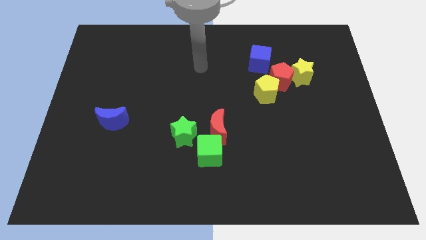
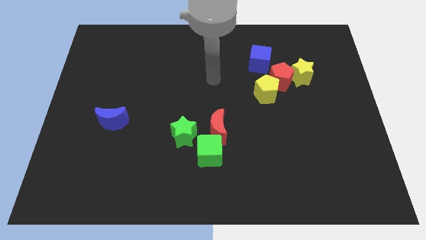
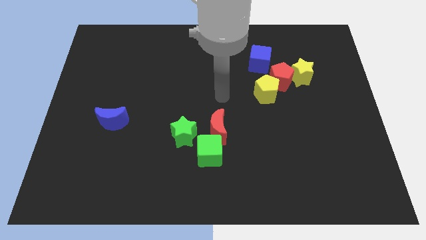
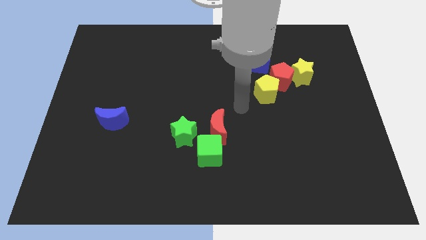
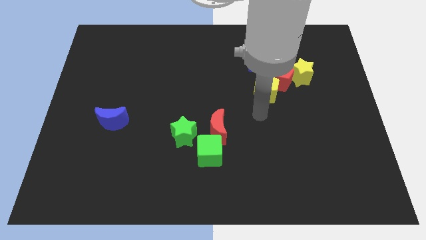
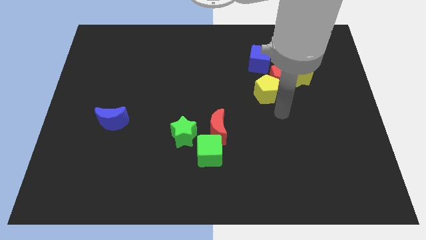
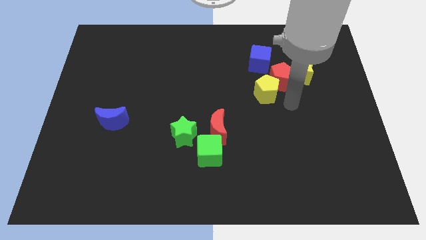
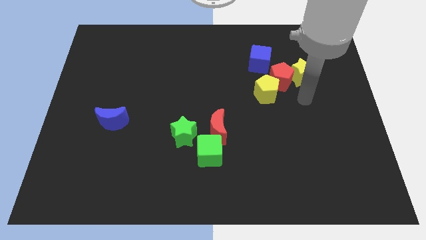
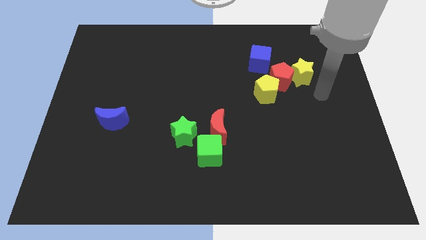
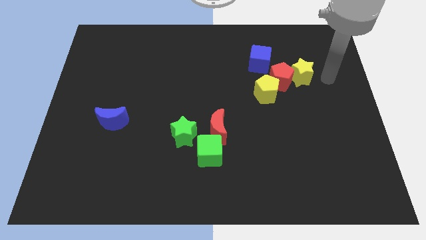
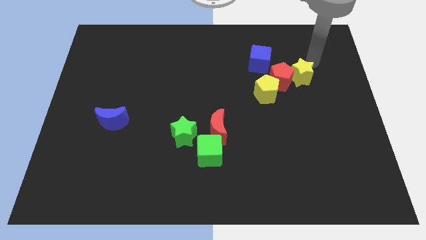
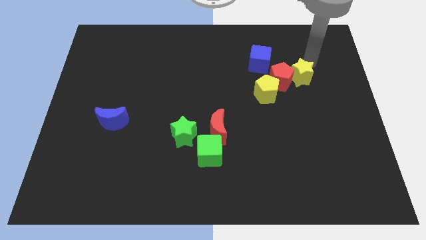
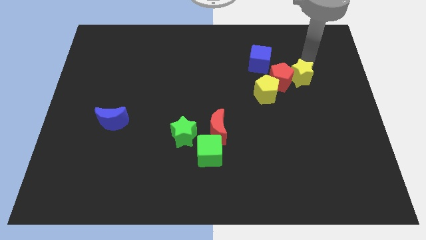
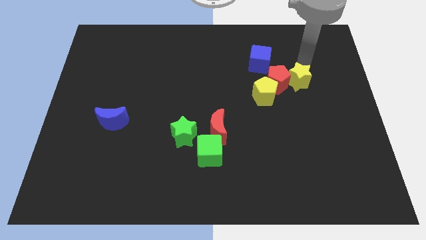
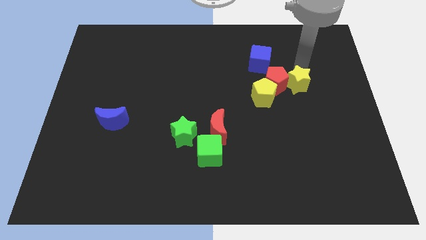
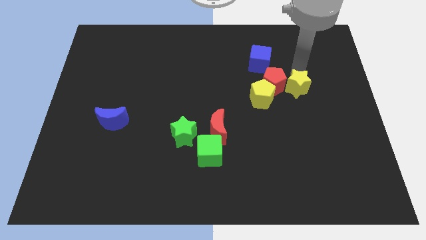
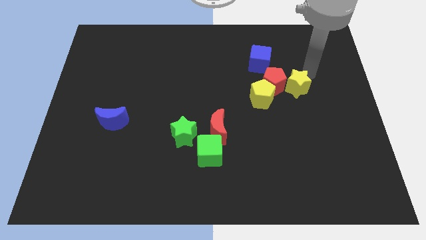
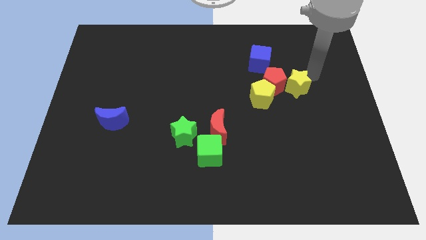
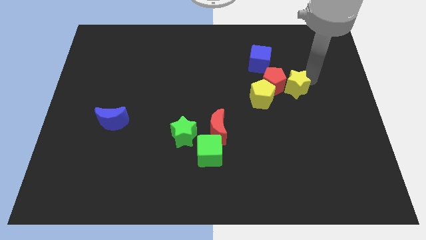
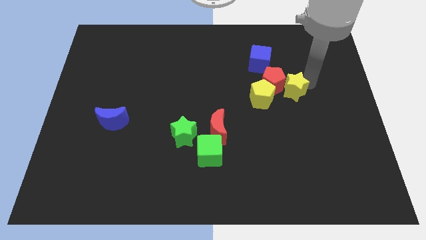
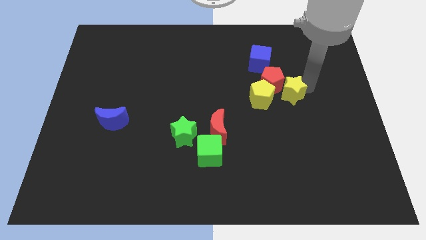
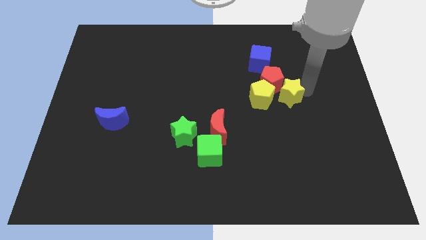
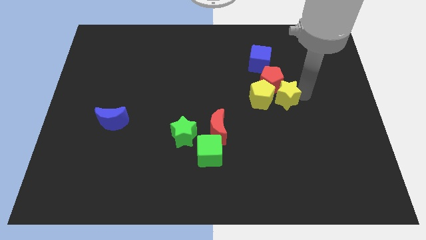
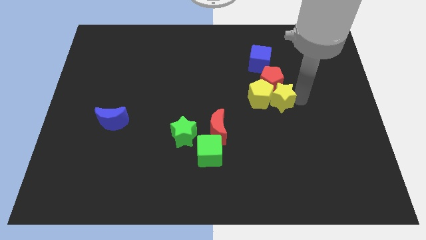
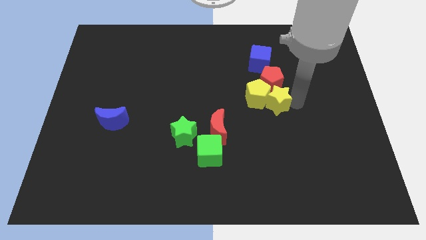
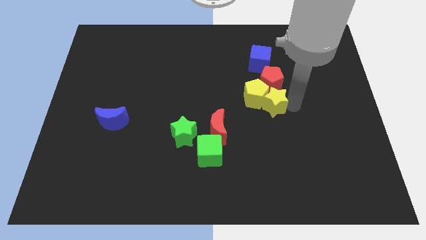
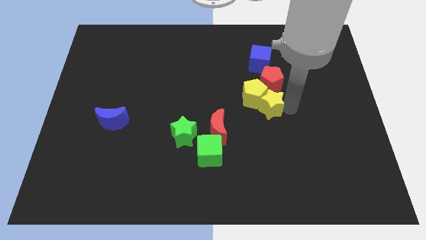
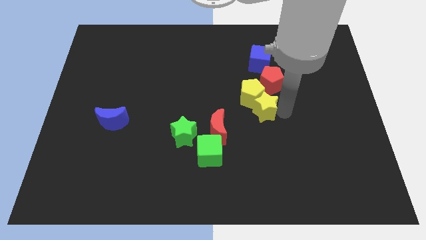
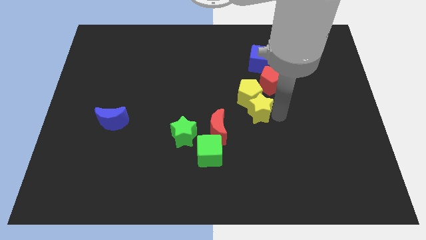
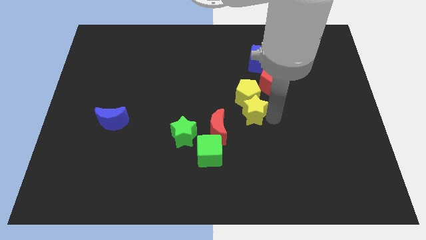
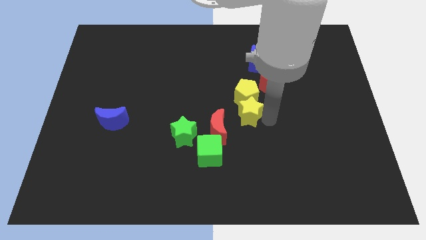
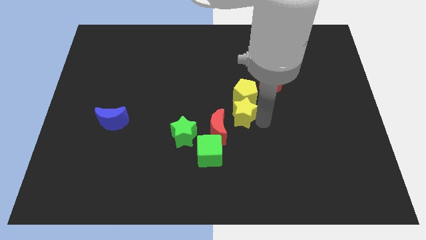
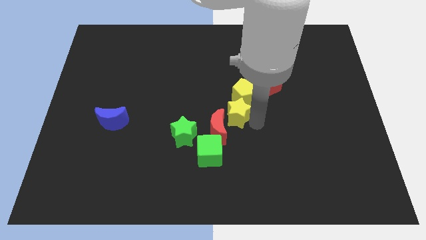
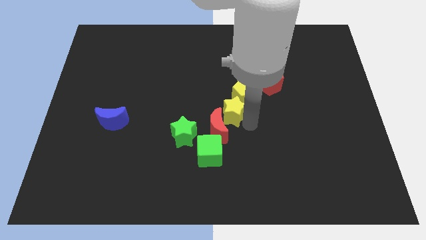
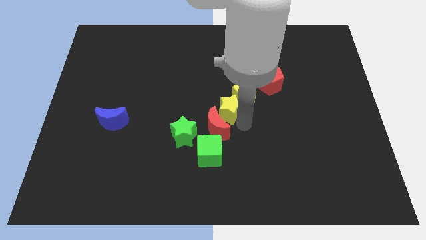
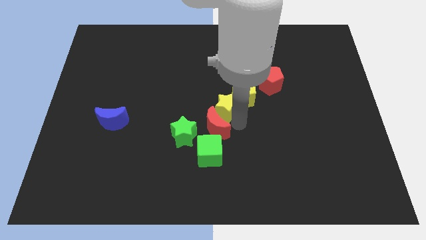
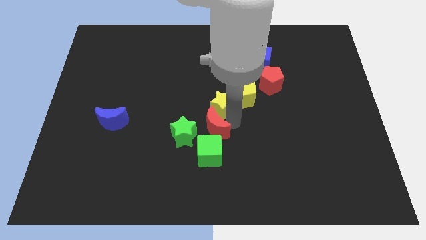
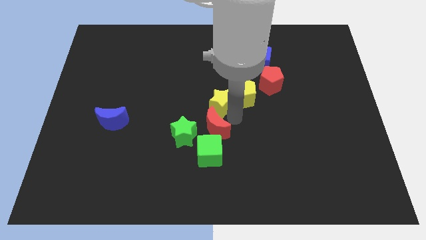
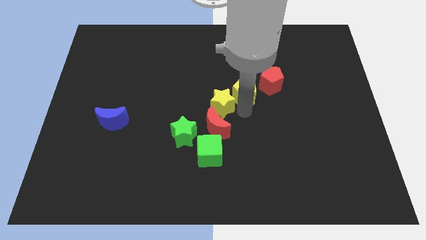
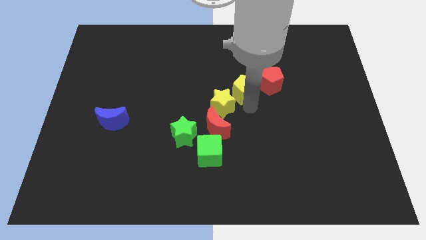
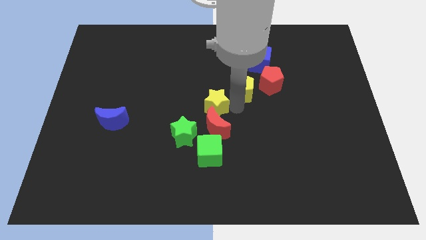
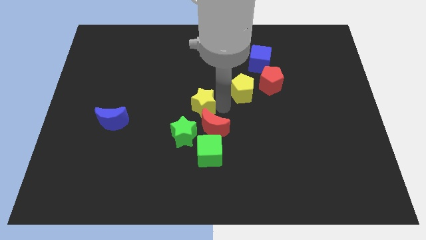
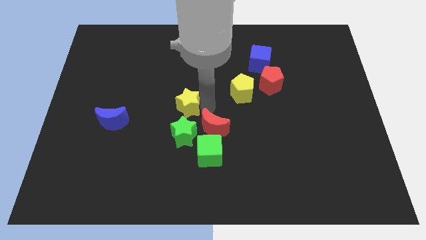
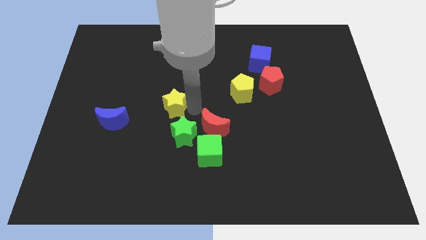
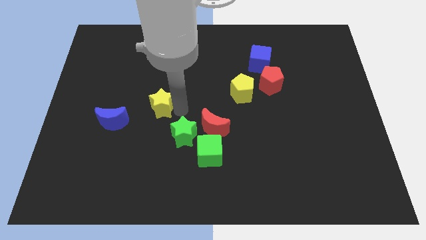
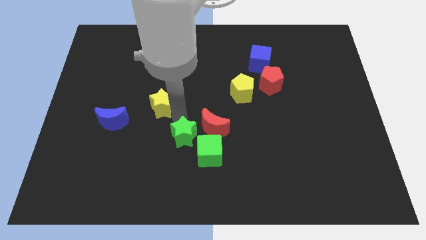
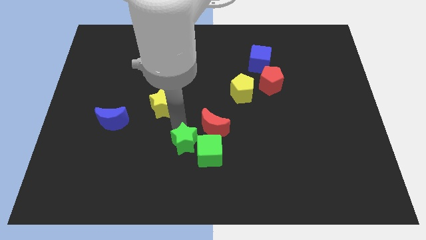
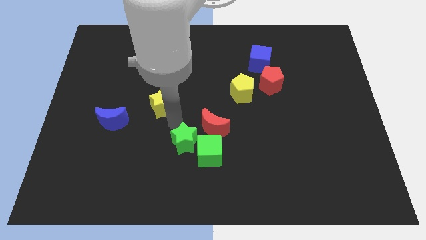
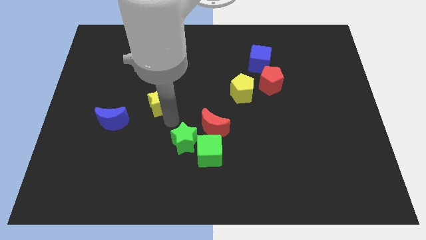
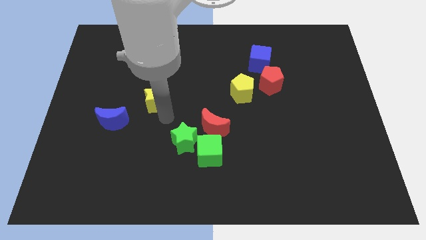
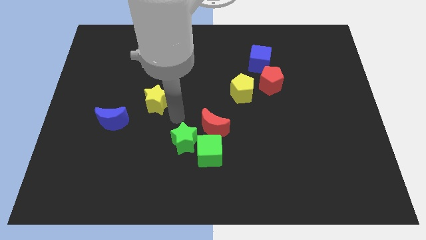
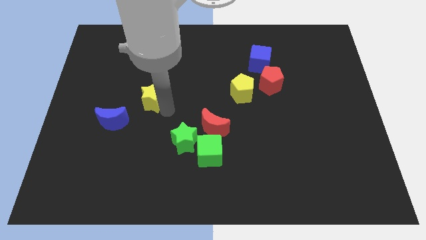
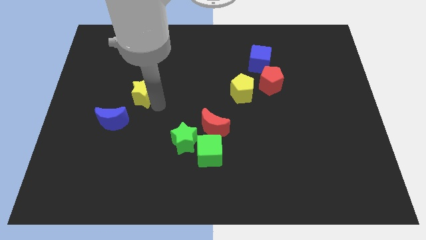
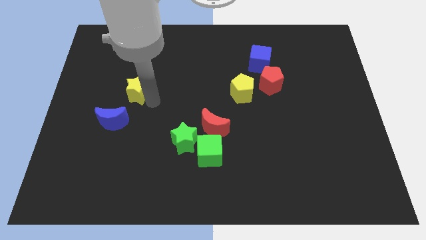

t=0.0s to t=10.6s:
put the yellow star to the top of the blue moon

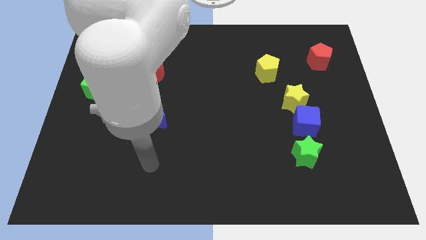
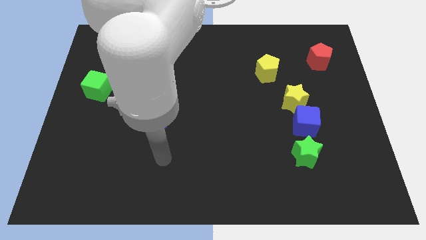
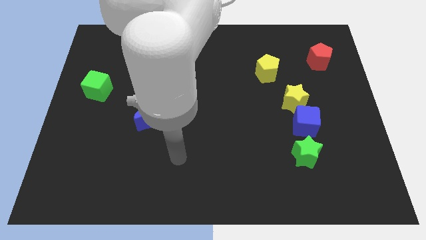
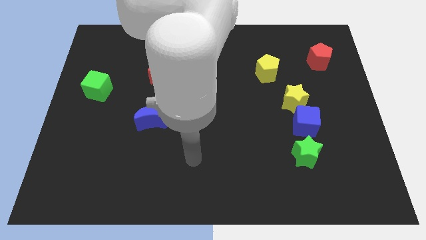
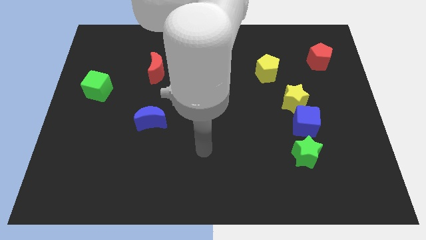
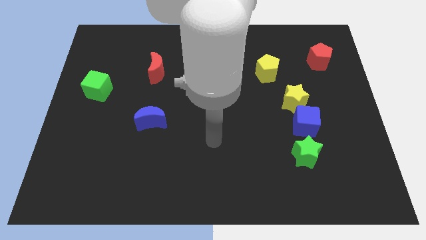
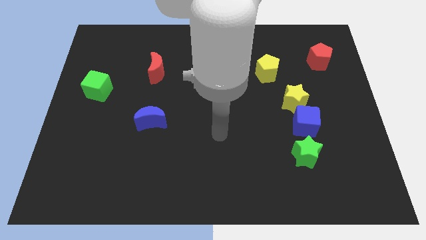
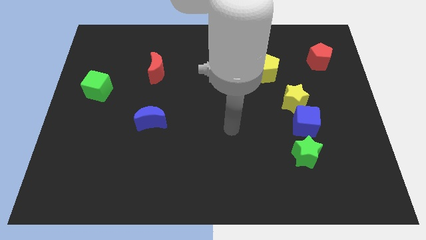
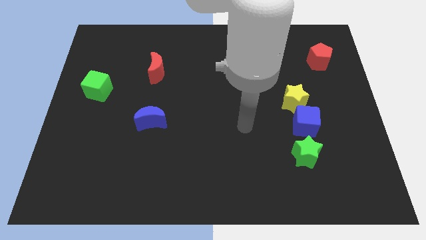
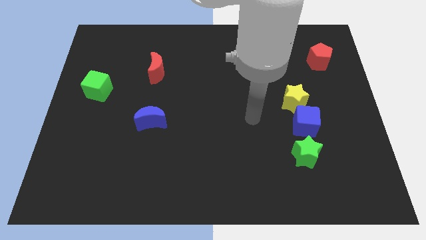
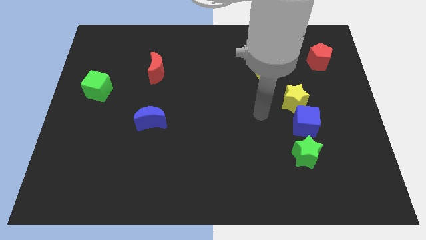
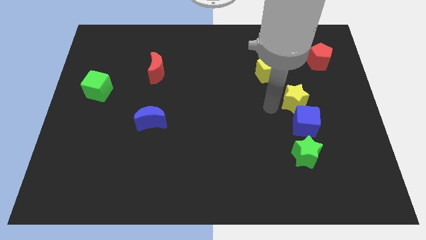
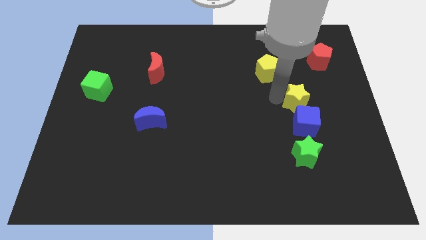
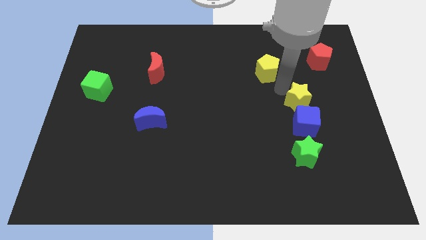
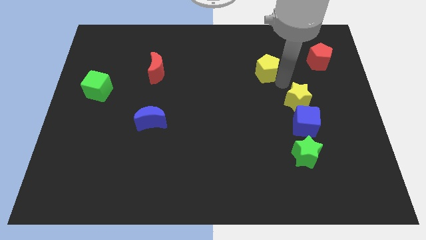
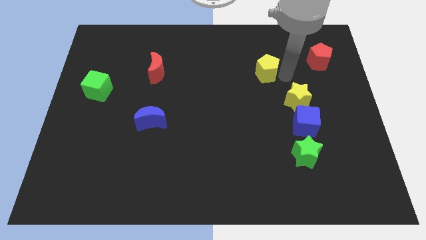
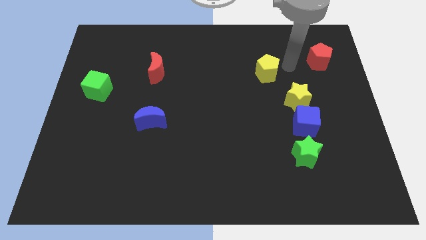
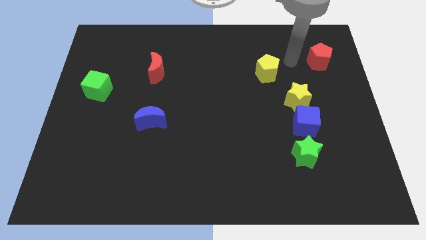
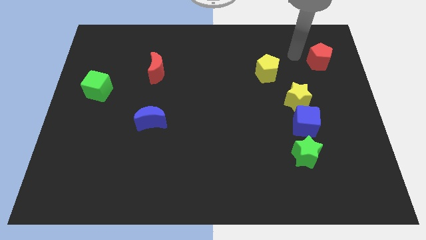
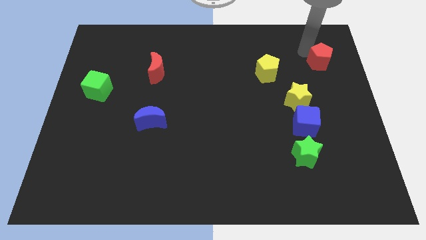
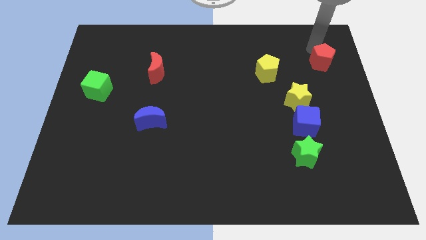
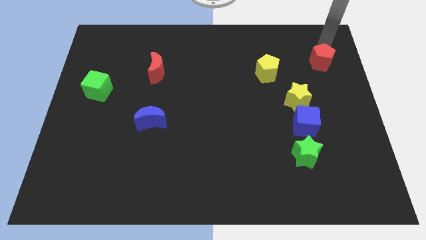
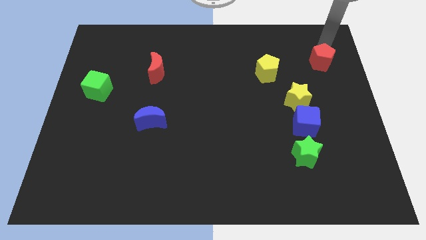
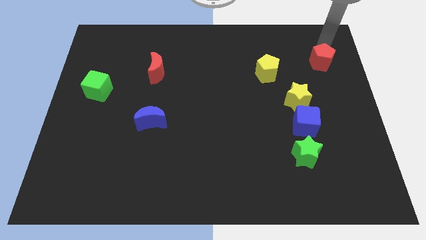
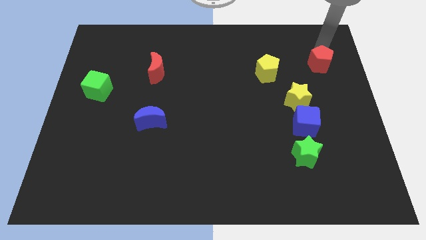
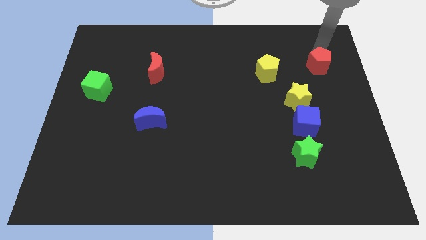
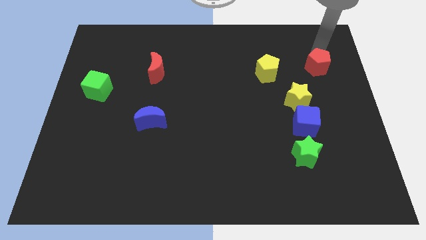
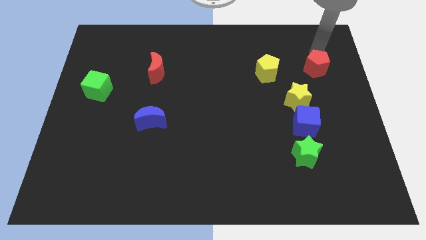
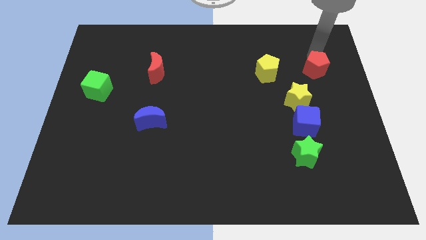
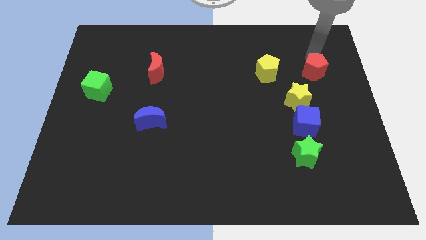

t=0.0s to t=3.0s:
move the red pentagon to the top right of the yellow star
